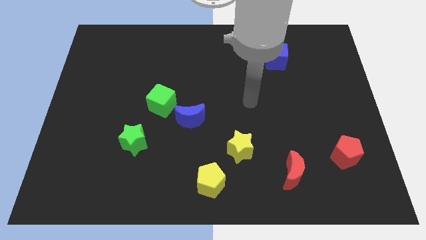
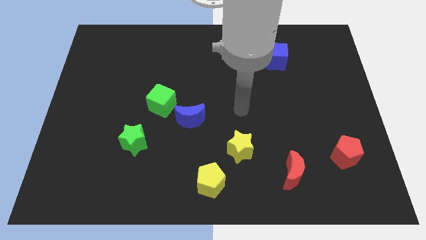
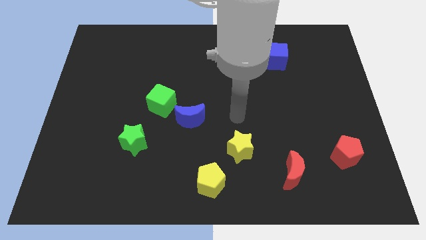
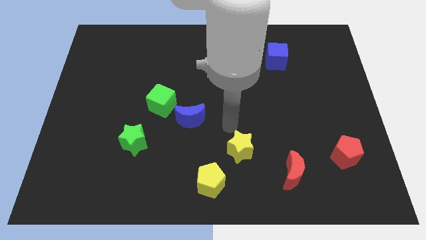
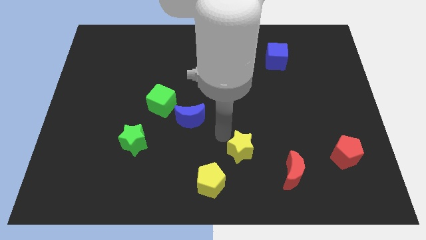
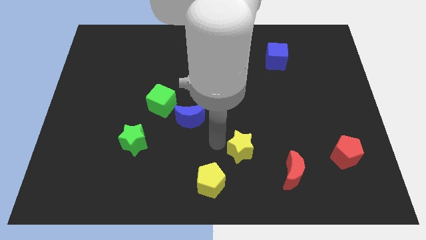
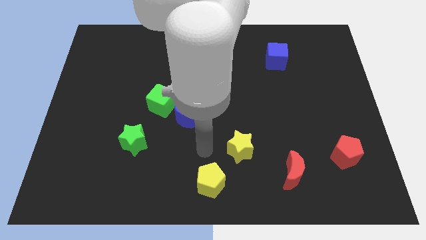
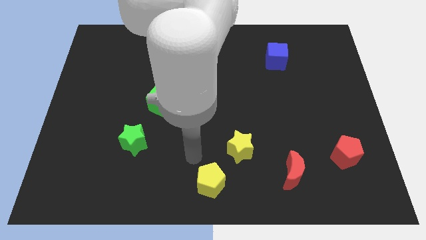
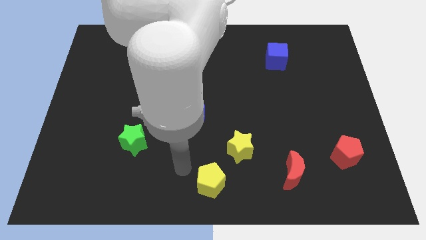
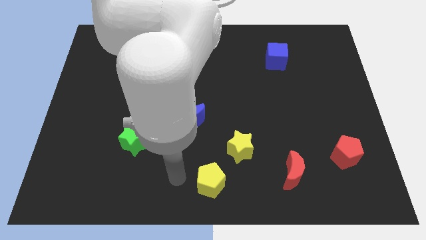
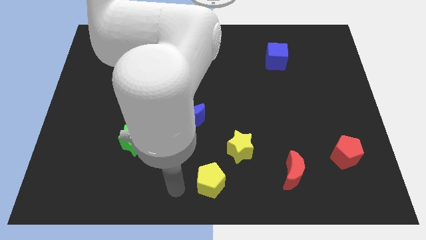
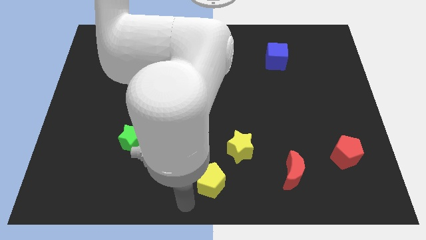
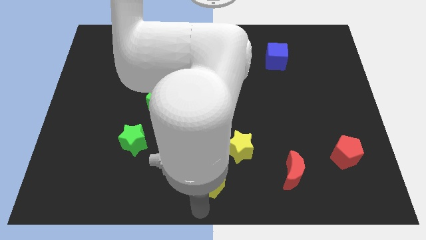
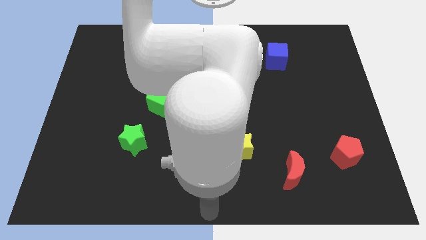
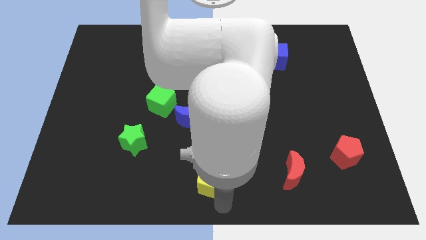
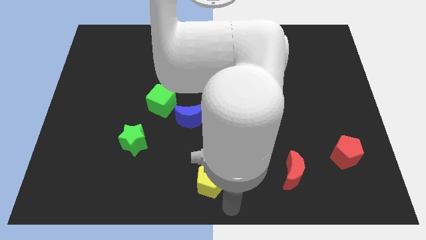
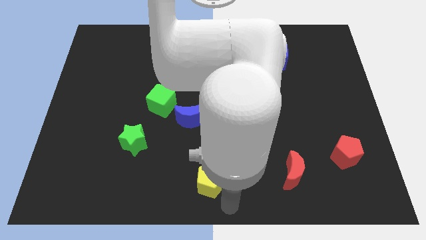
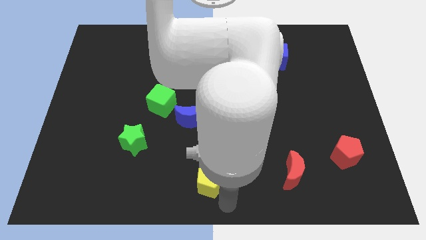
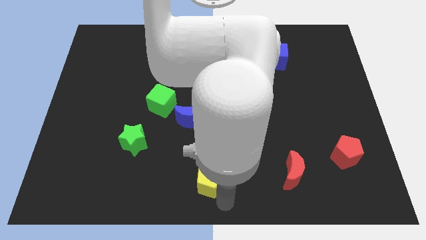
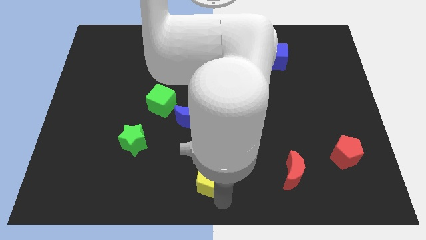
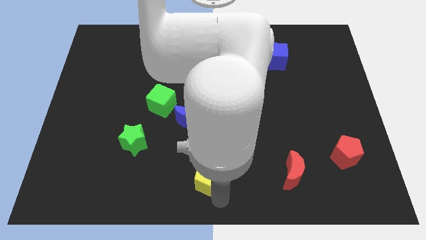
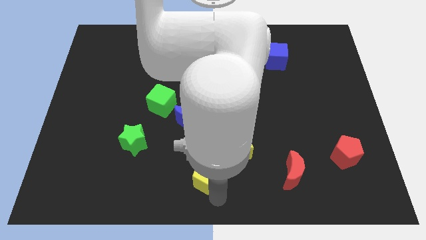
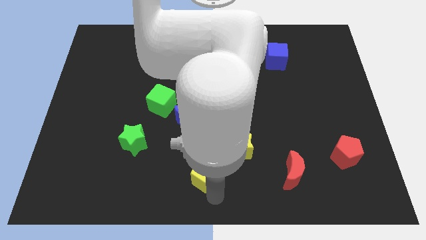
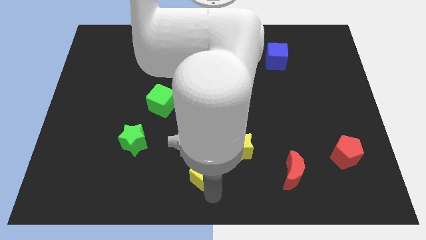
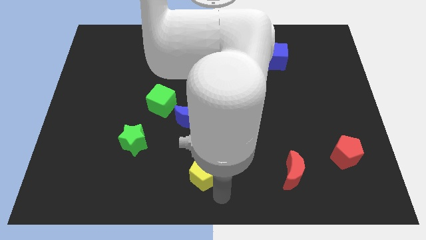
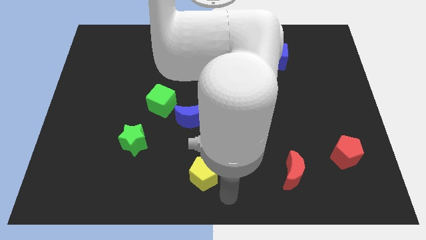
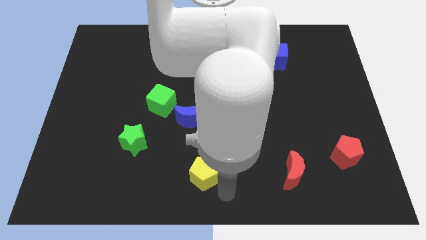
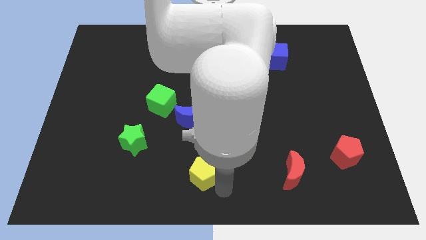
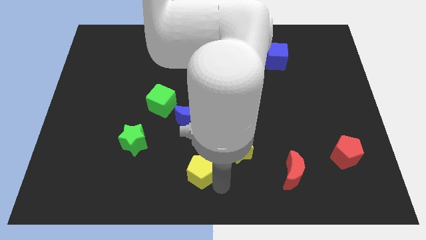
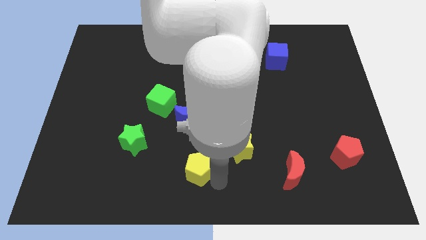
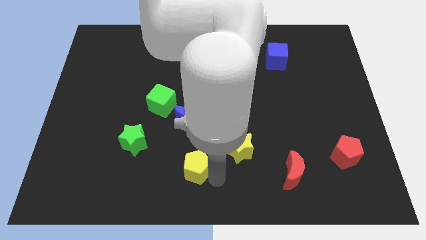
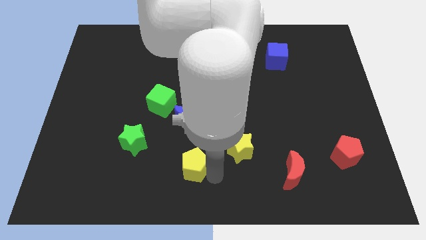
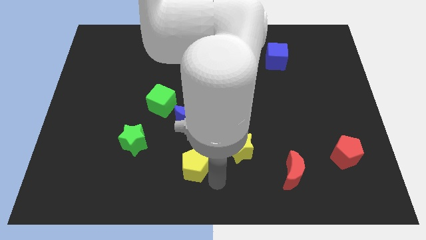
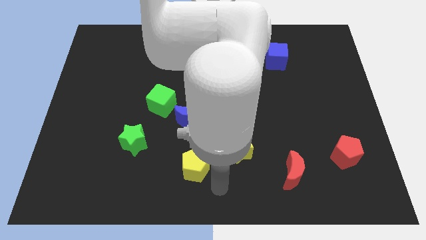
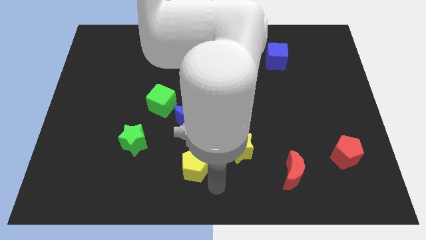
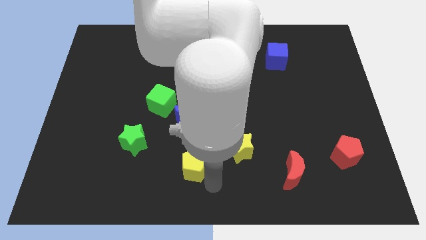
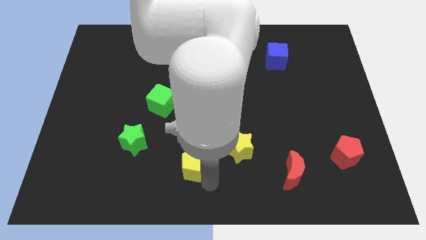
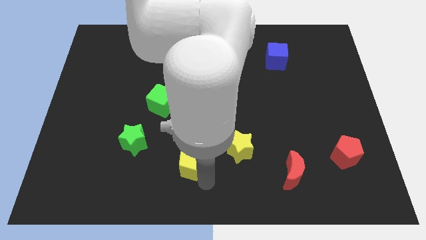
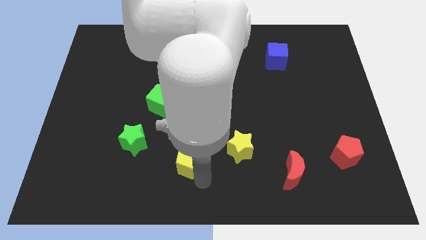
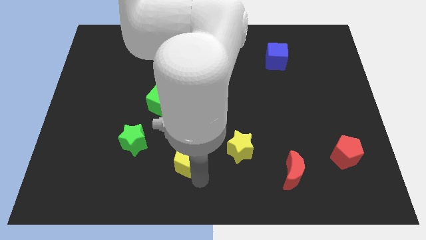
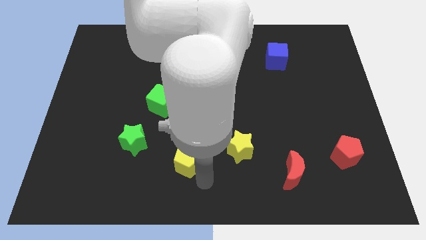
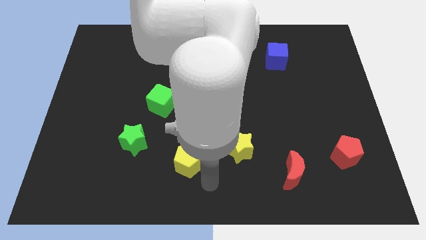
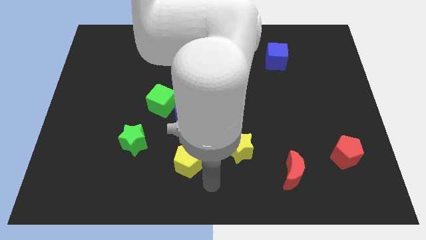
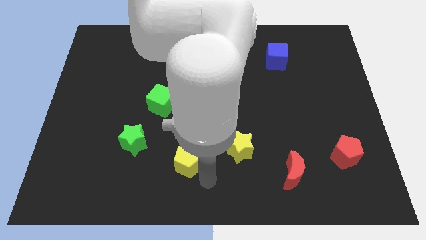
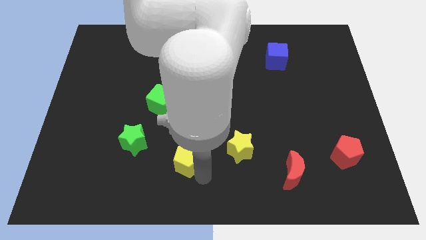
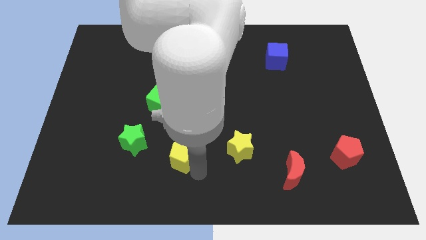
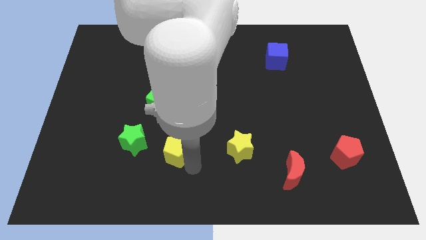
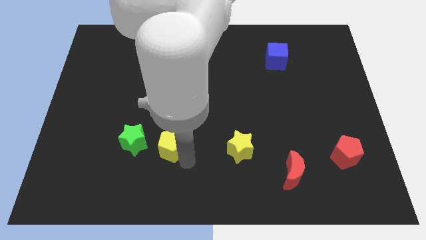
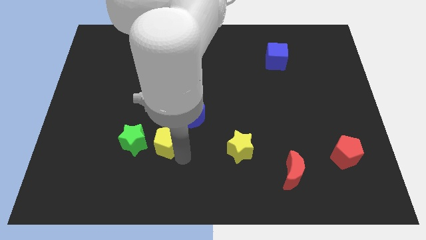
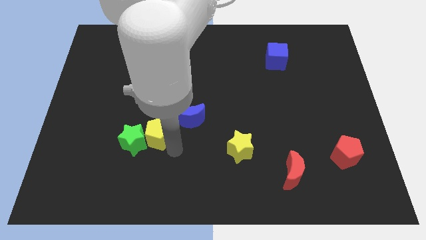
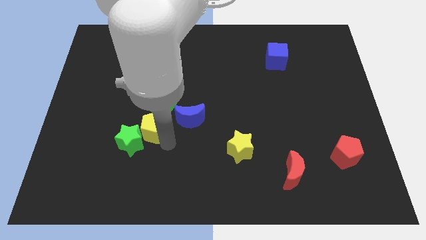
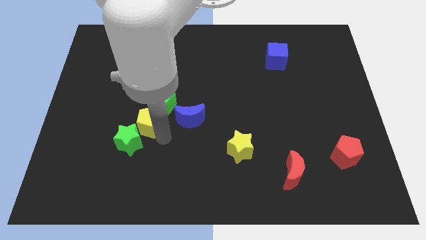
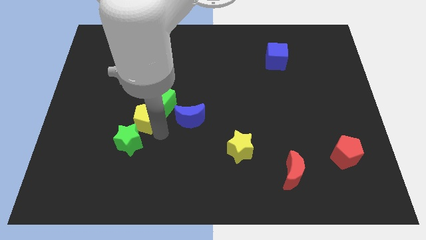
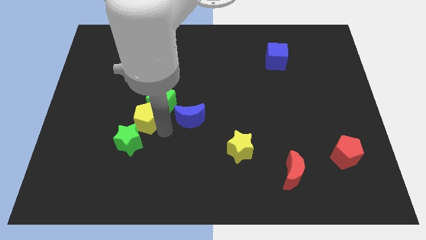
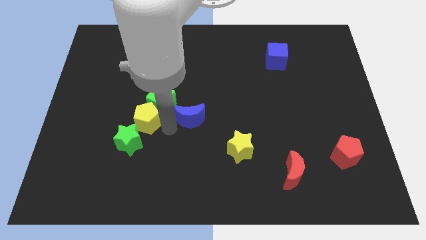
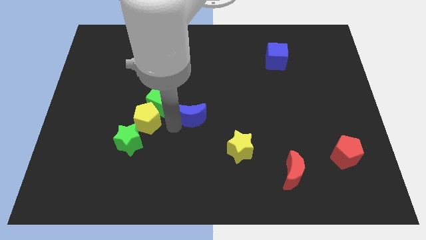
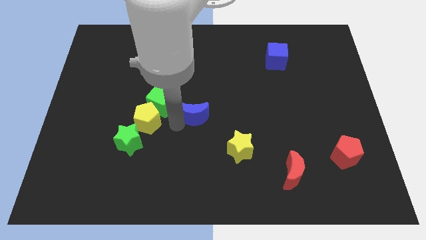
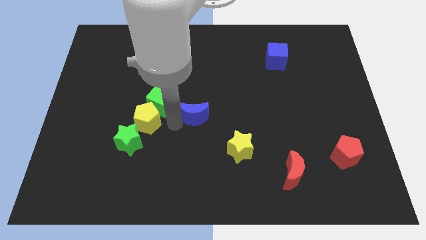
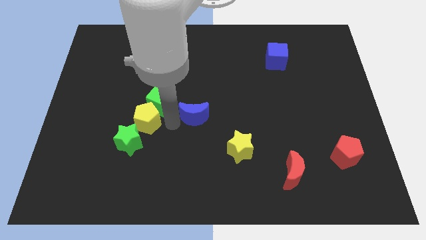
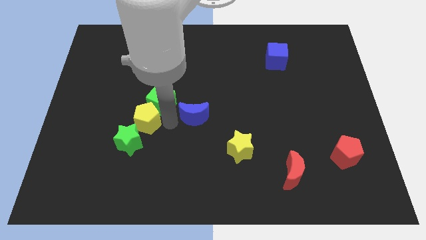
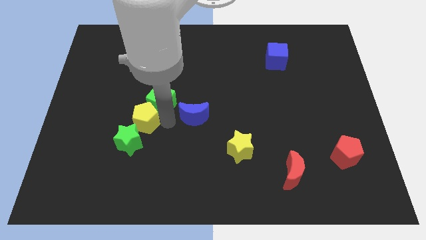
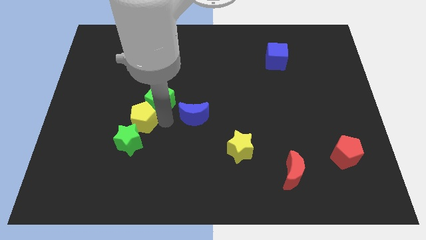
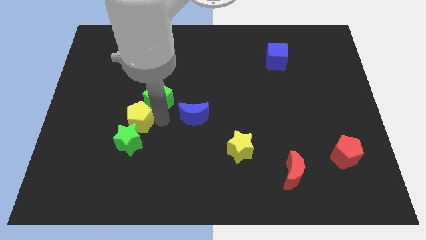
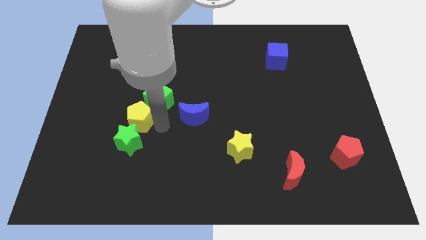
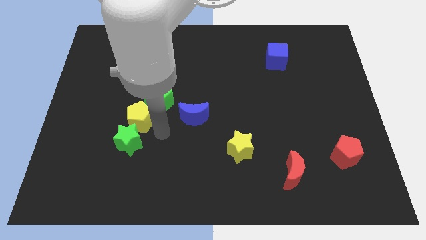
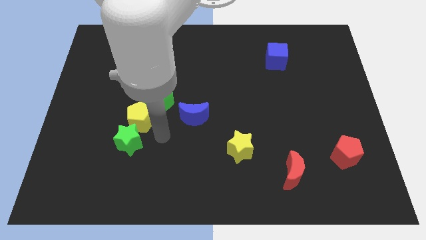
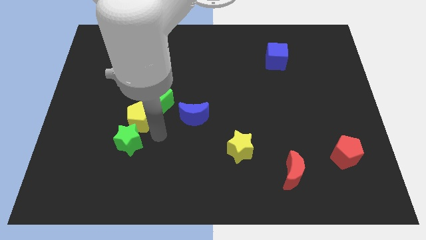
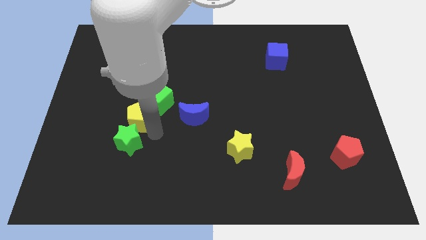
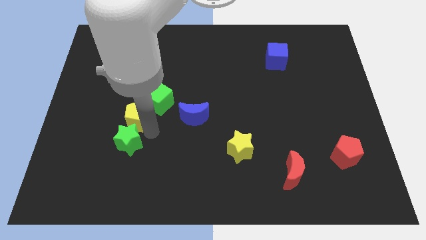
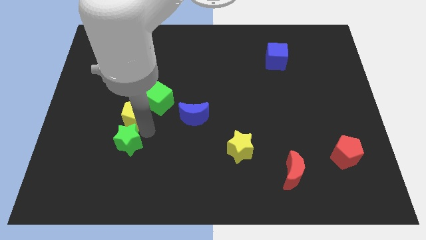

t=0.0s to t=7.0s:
push the yellow pentagon to the left side of the green cube

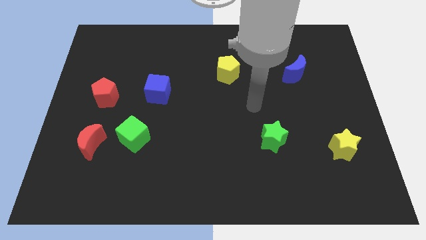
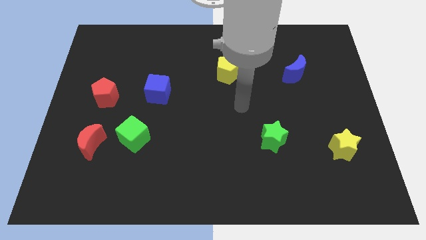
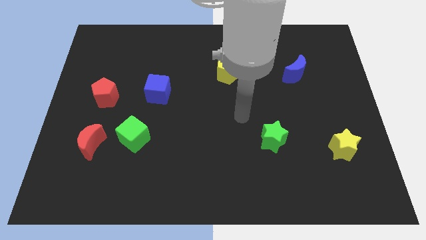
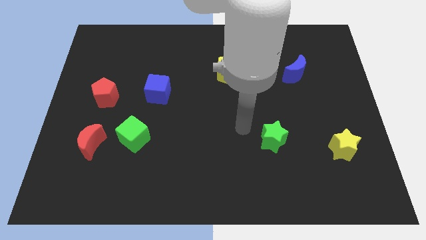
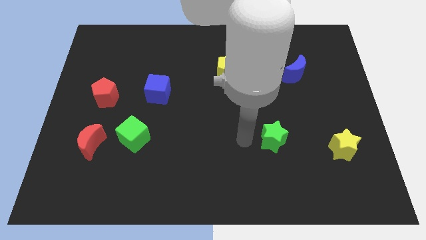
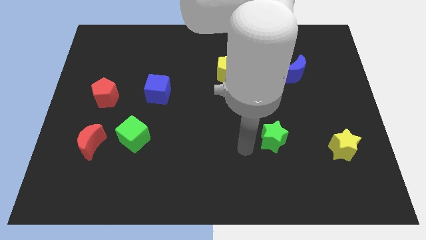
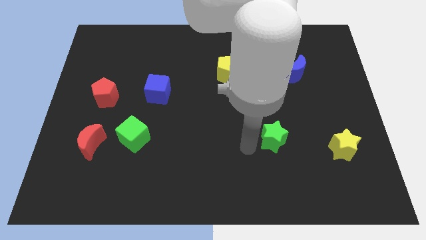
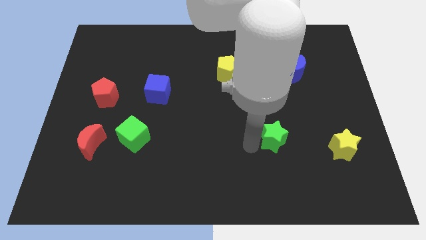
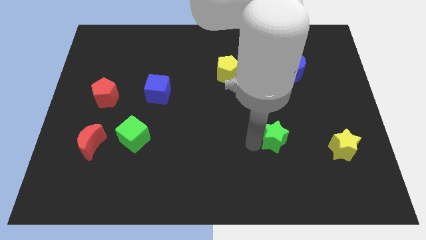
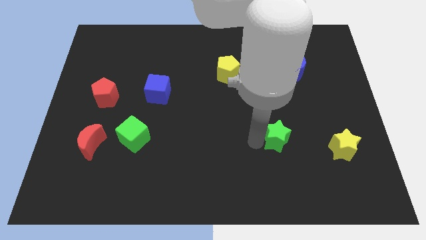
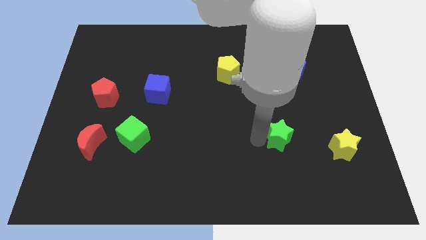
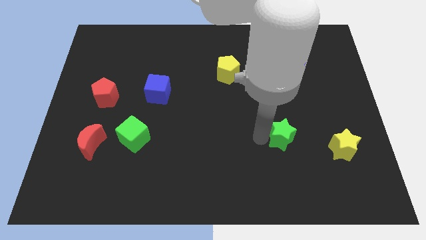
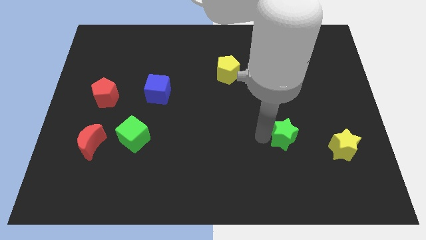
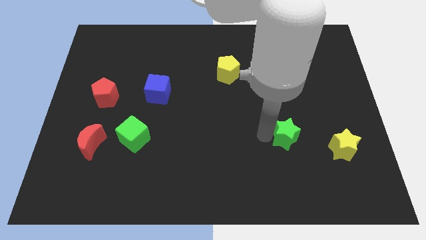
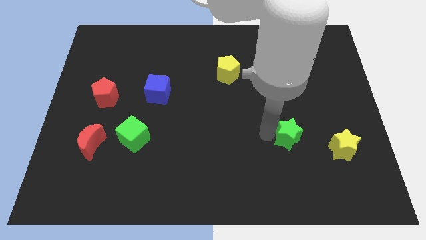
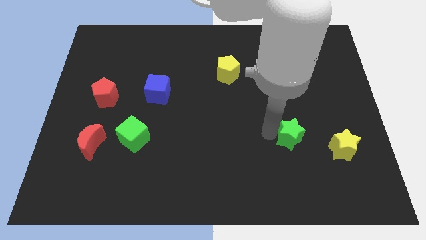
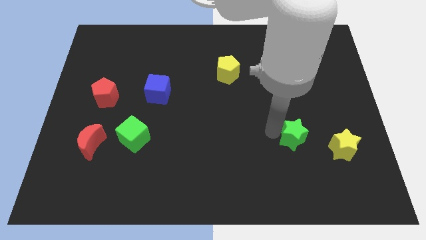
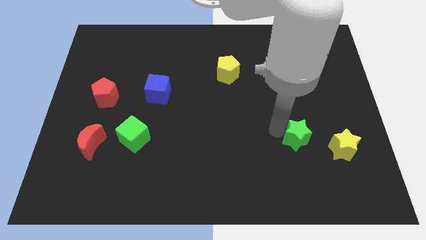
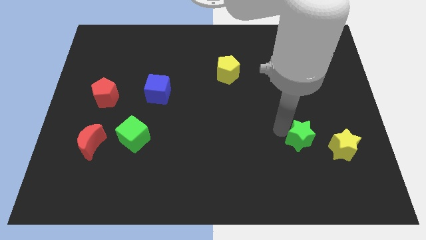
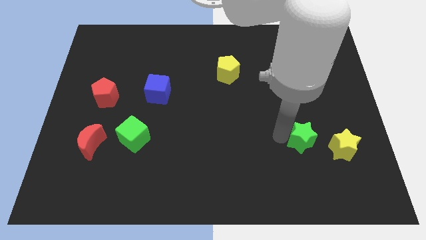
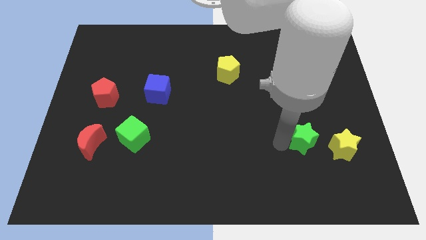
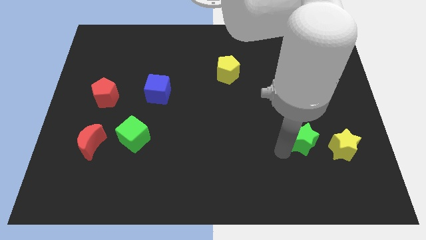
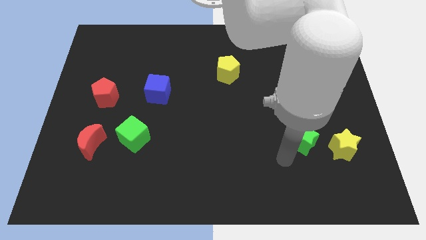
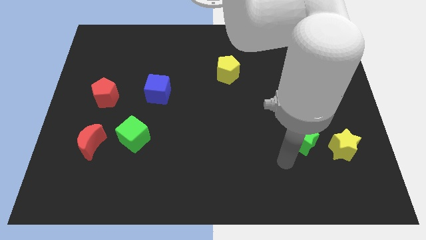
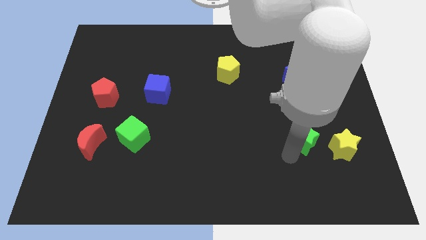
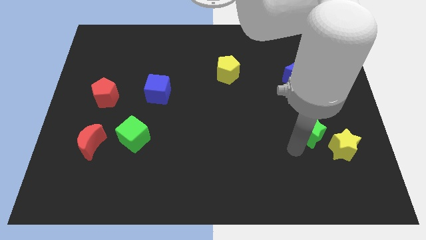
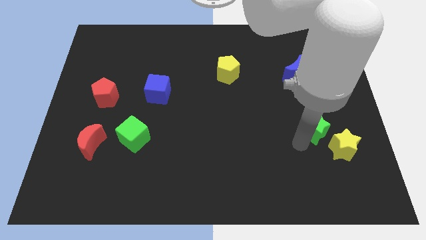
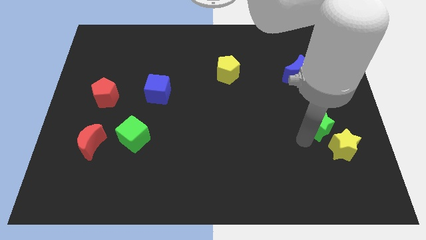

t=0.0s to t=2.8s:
put the green star to the top of the yellow star
